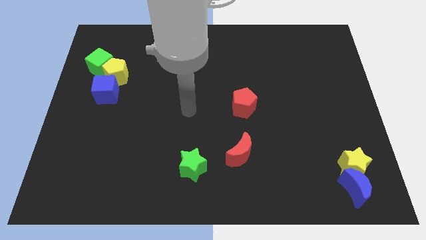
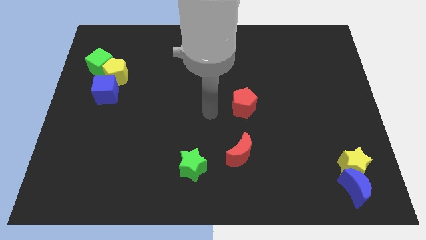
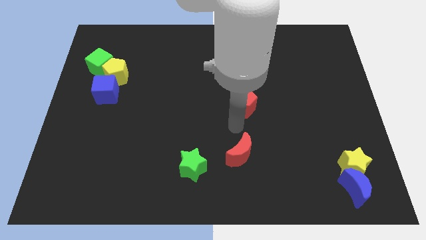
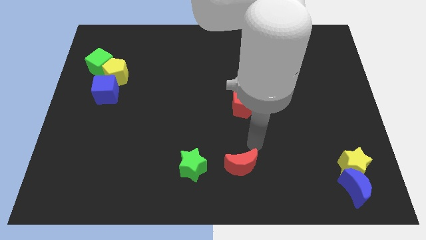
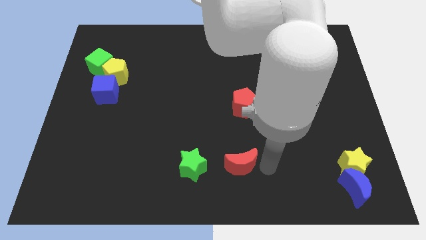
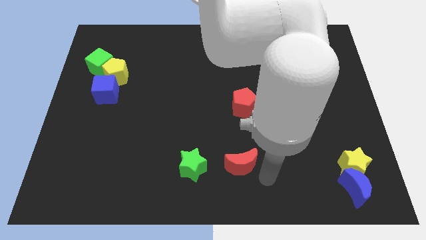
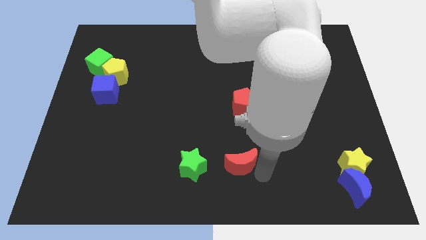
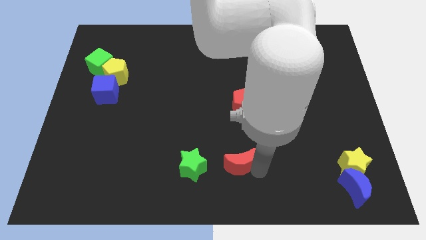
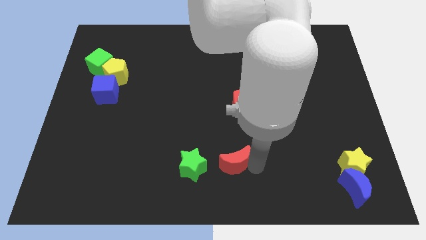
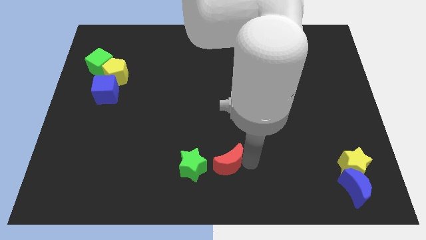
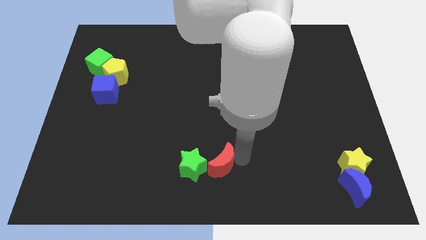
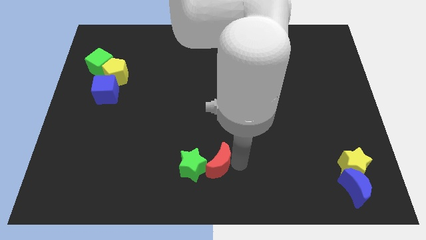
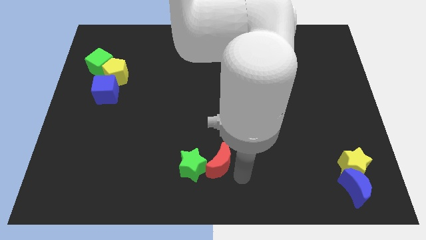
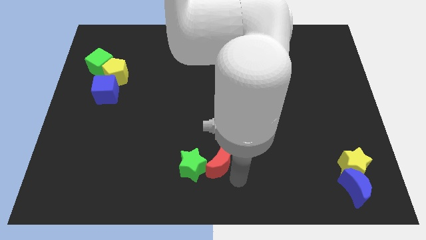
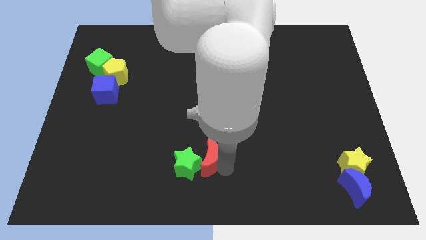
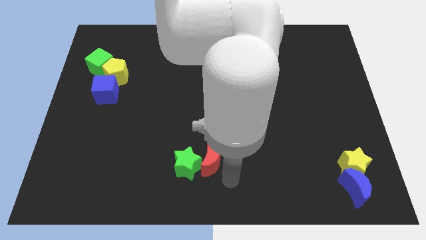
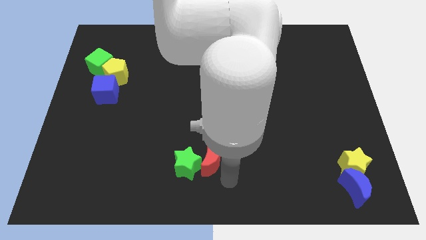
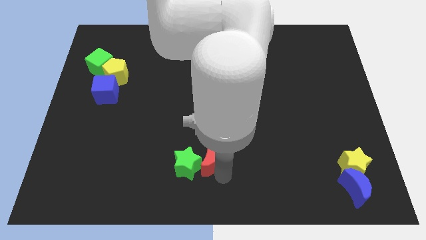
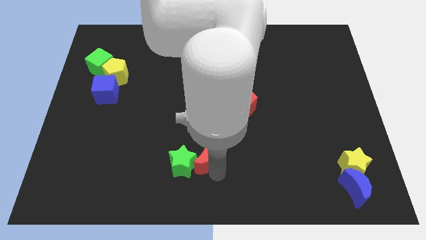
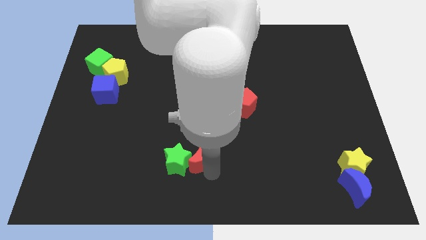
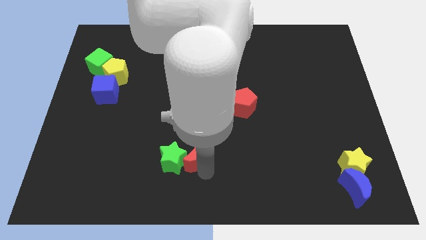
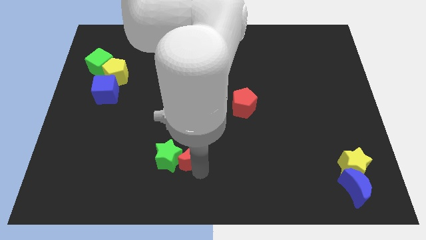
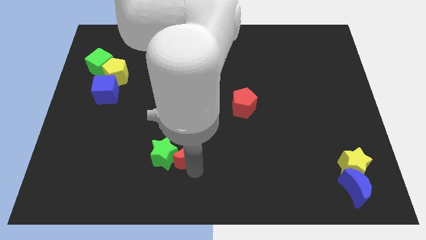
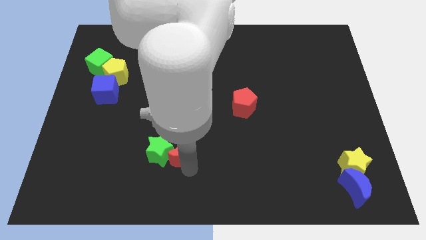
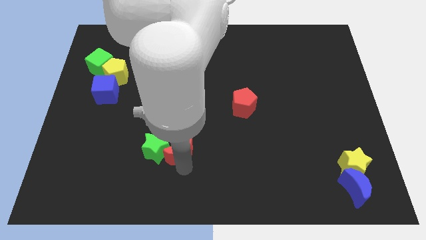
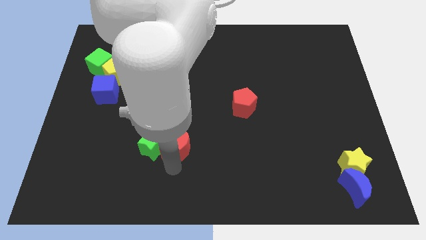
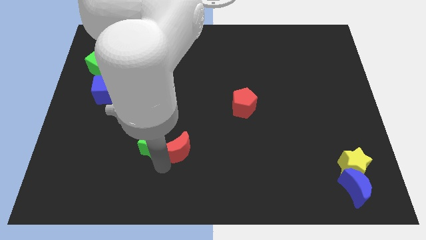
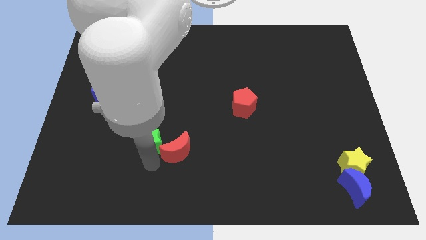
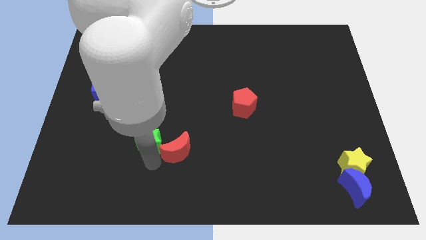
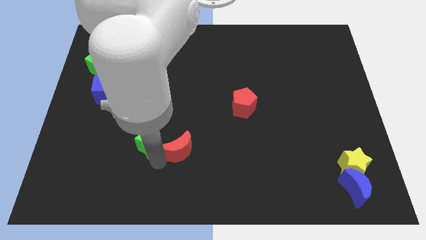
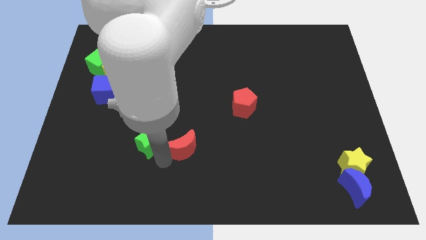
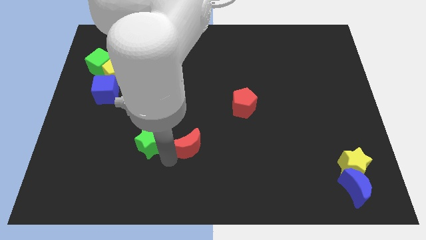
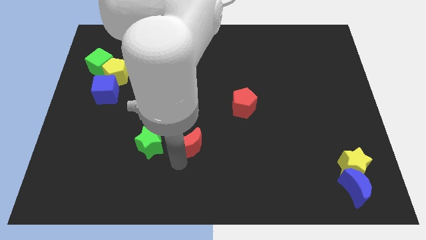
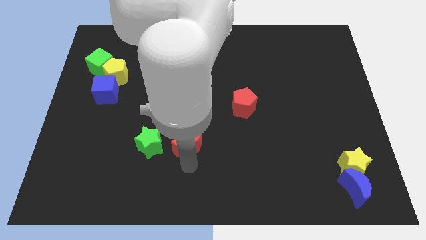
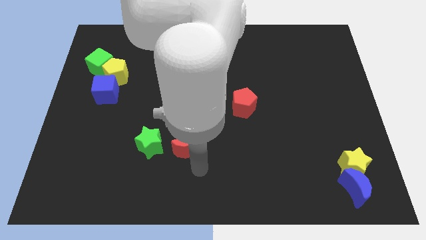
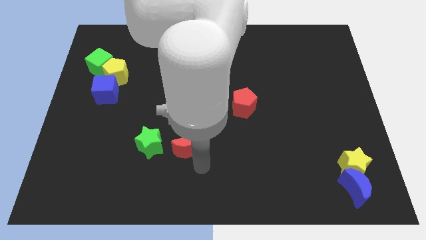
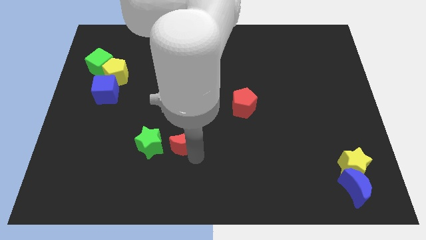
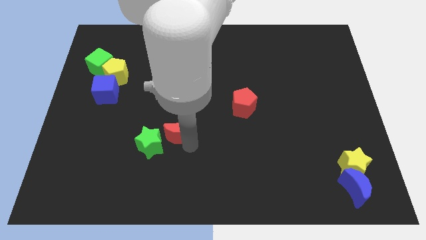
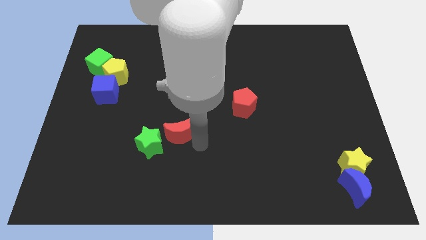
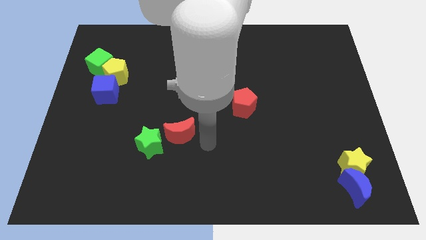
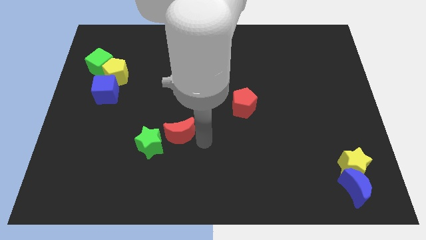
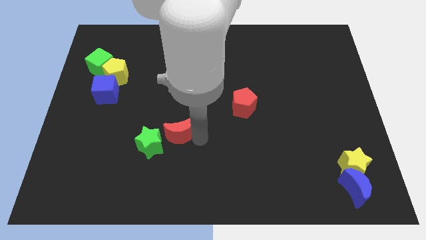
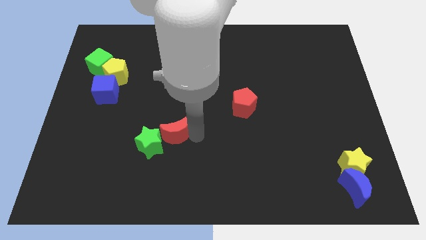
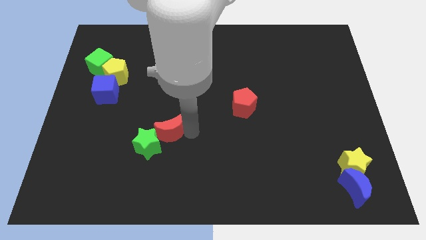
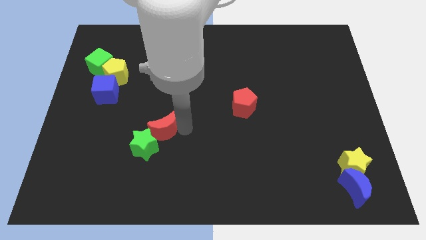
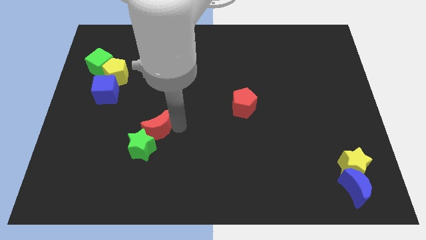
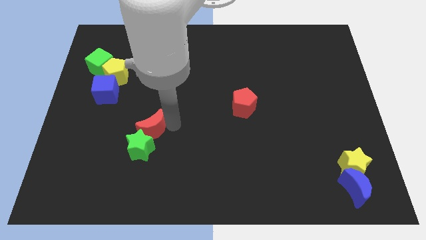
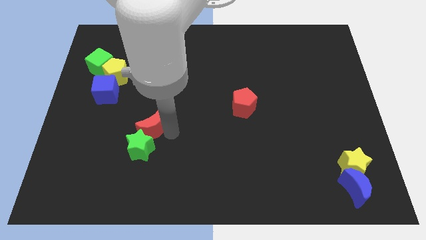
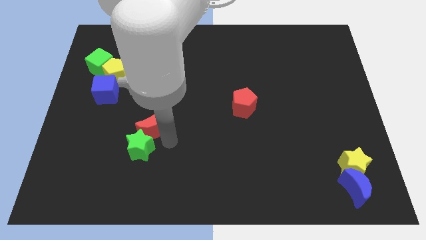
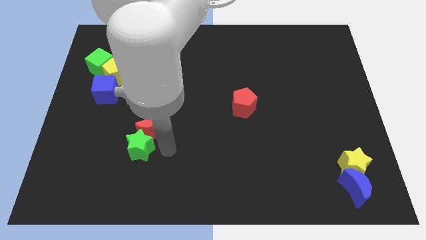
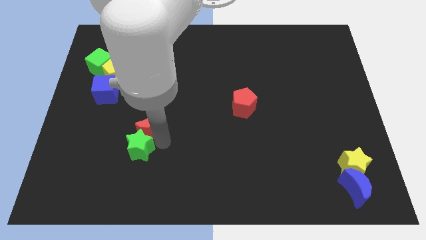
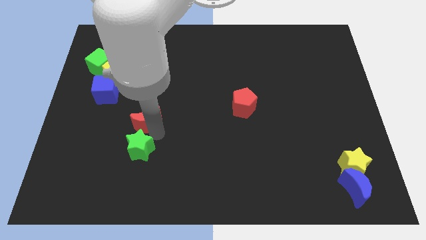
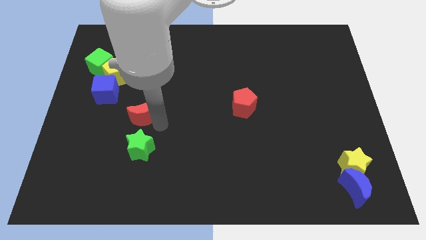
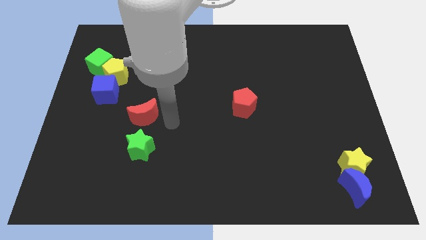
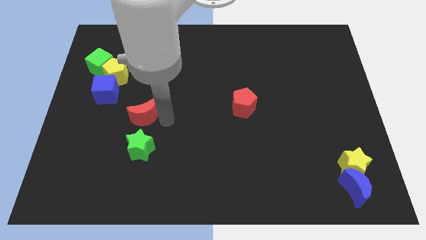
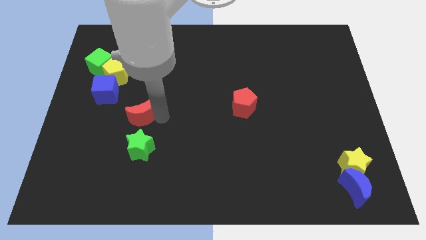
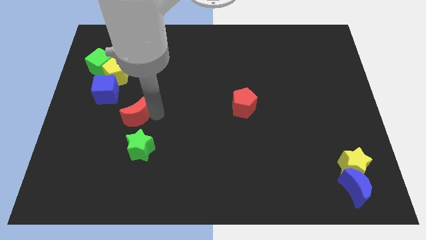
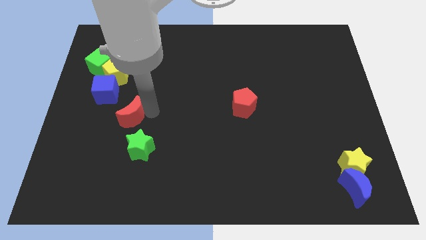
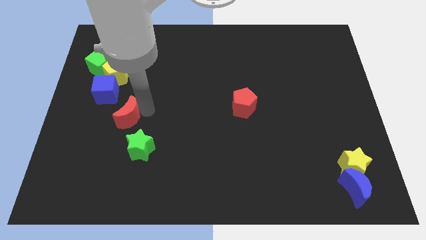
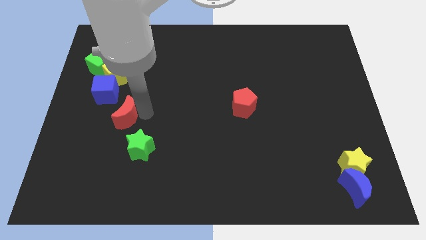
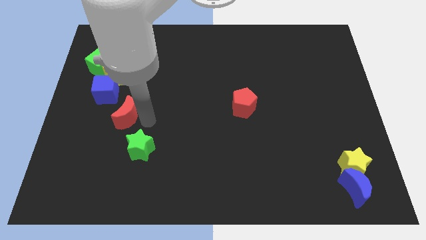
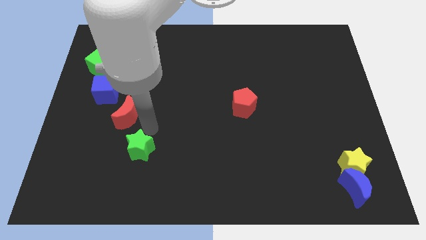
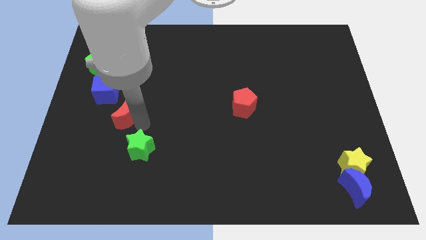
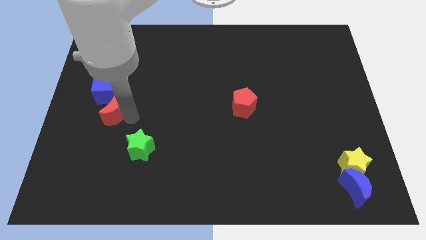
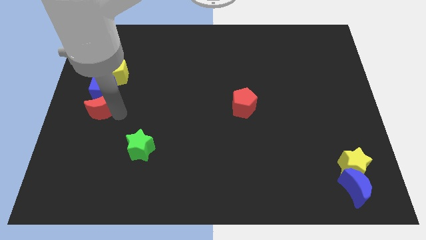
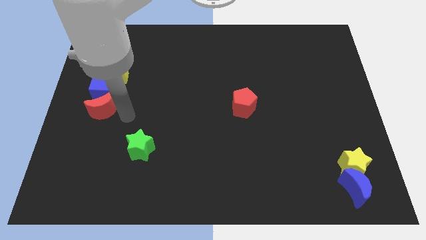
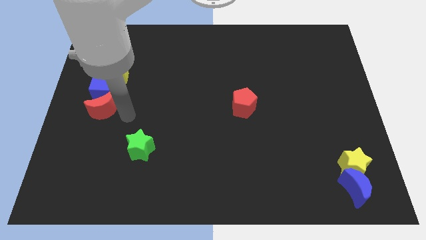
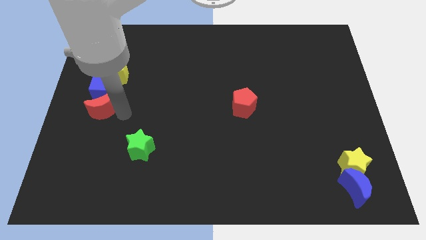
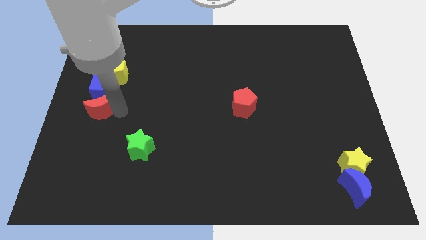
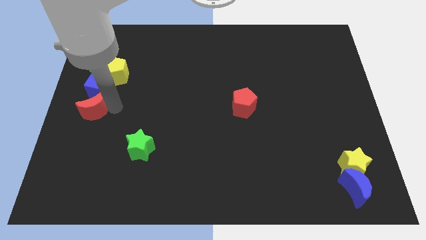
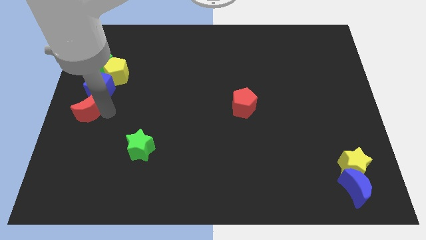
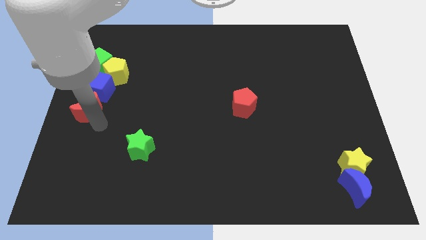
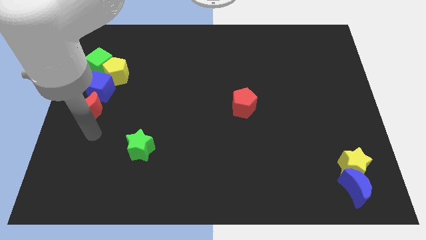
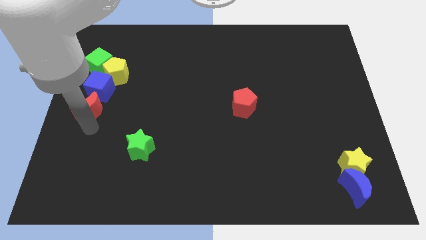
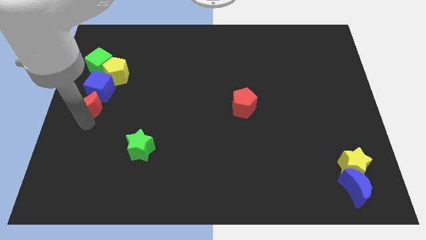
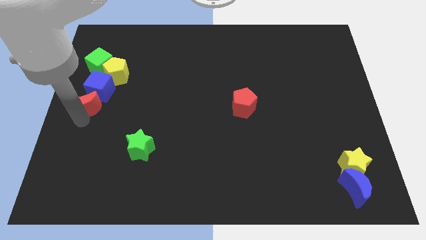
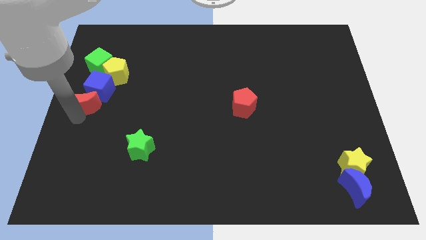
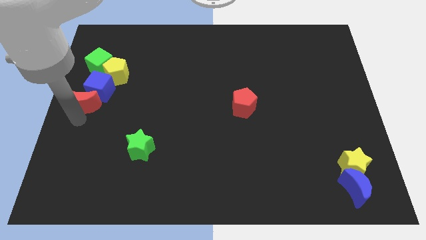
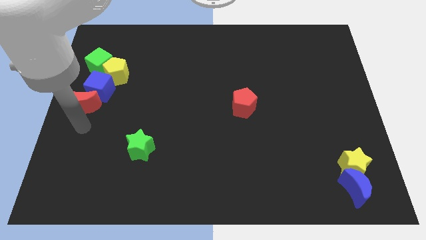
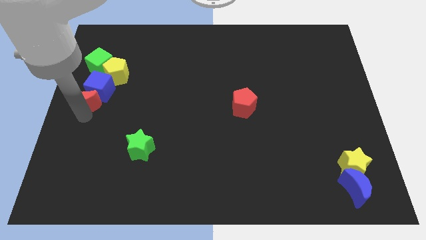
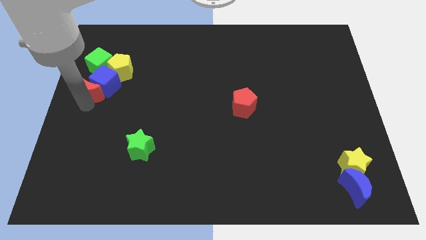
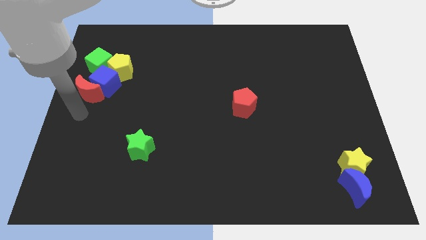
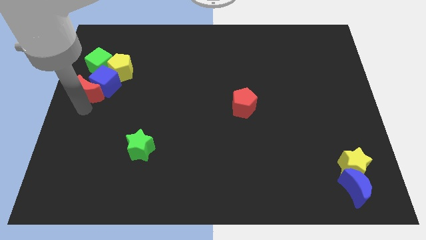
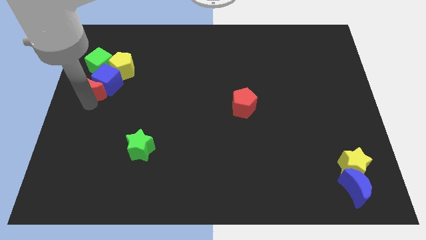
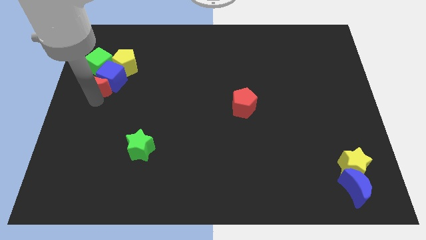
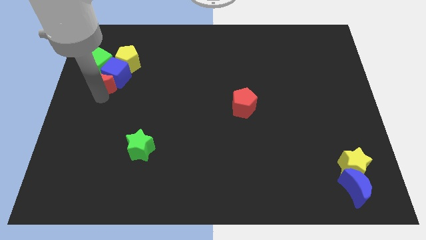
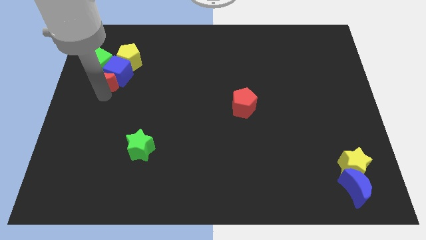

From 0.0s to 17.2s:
put the red moon towards the green cube
